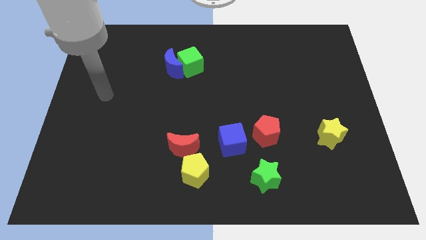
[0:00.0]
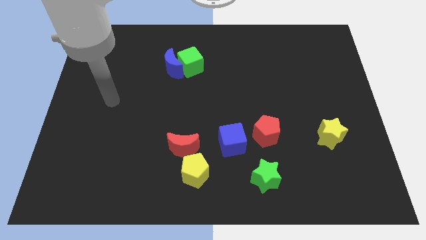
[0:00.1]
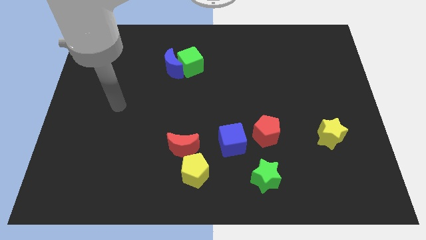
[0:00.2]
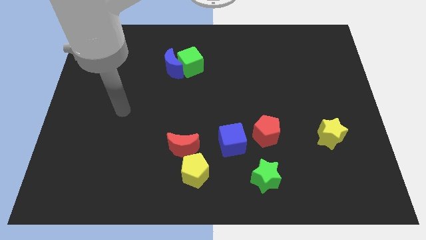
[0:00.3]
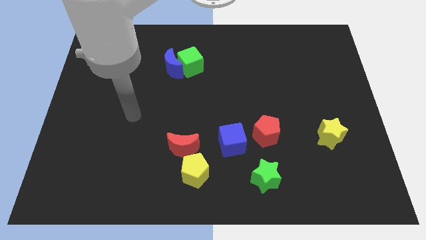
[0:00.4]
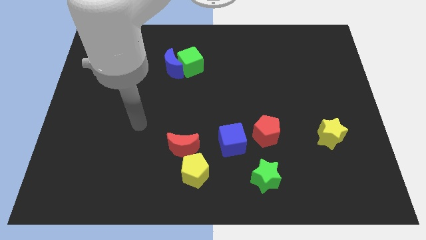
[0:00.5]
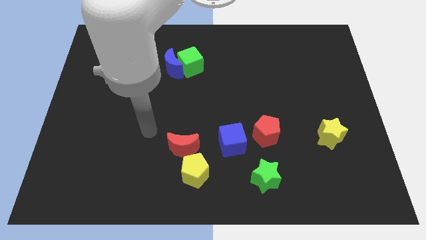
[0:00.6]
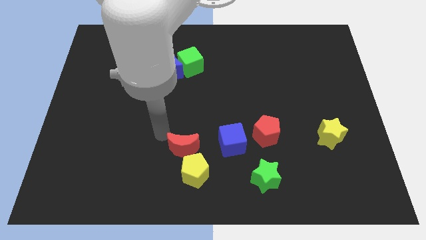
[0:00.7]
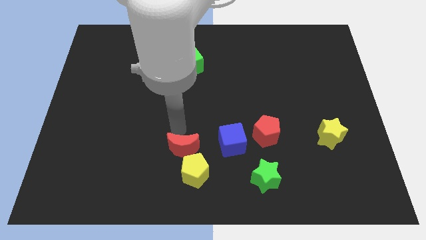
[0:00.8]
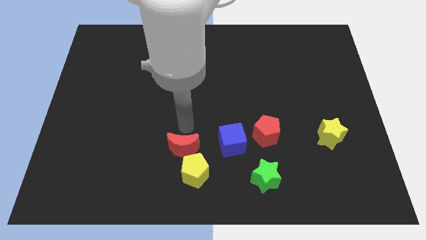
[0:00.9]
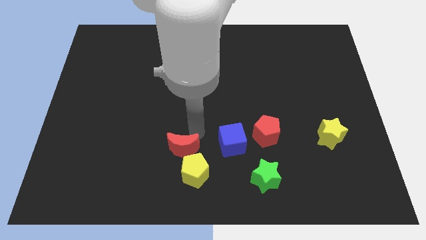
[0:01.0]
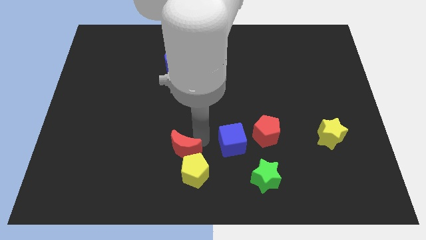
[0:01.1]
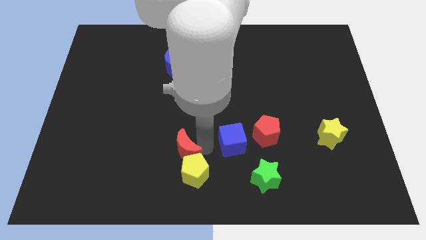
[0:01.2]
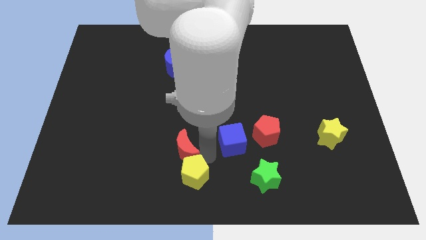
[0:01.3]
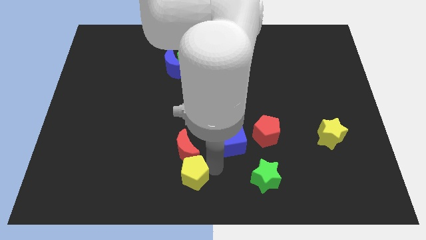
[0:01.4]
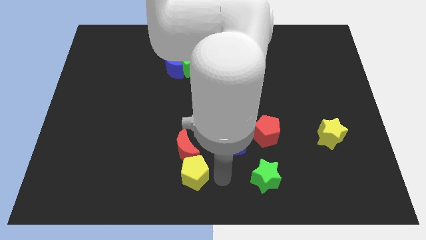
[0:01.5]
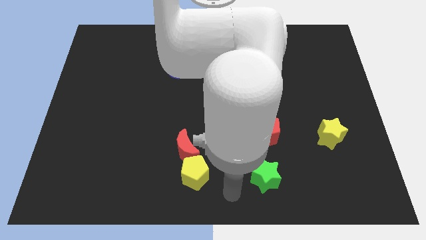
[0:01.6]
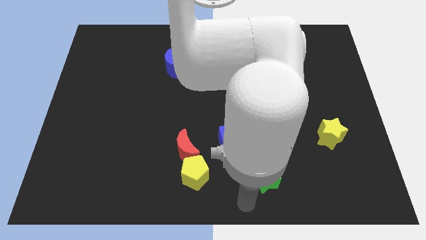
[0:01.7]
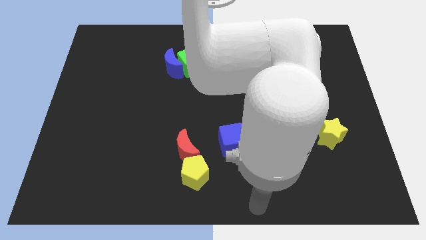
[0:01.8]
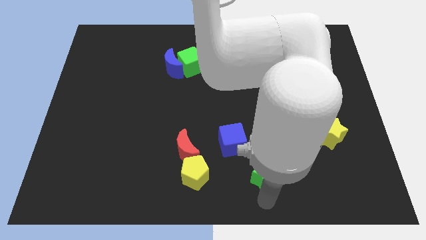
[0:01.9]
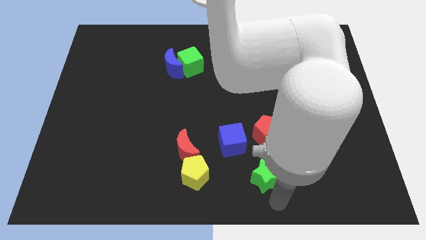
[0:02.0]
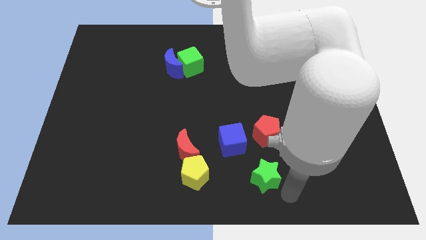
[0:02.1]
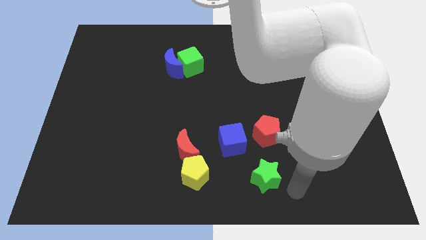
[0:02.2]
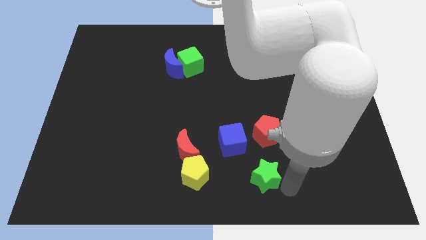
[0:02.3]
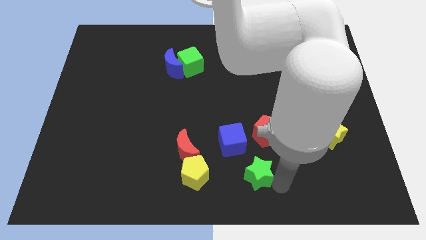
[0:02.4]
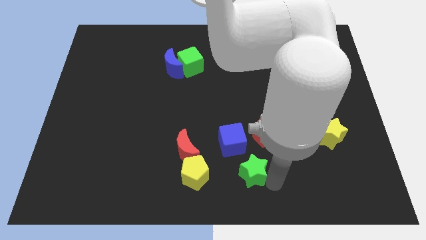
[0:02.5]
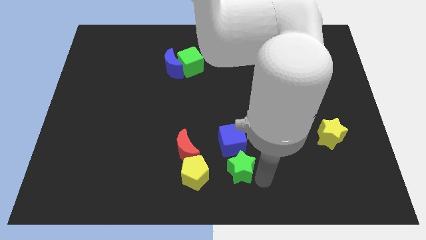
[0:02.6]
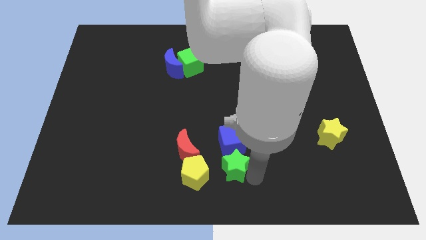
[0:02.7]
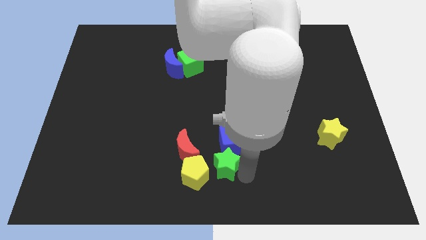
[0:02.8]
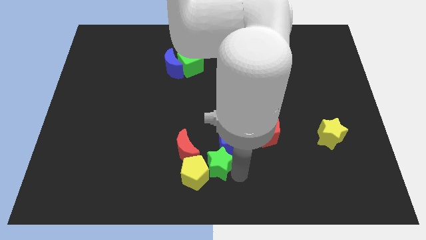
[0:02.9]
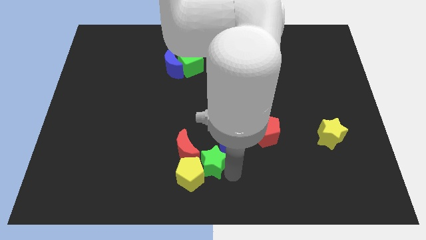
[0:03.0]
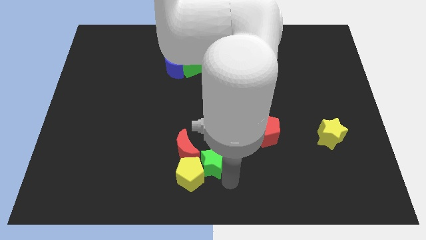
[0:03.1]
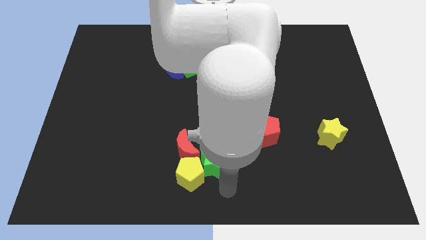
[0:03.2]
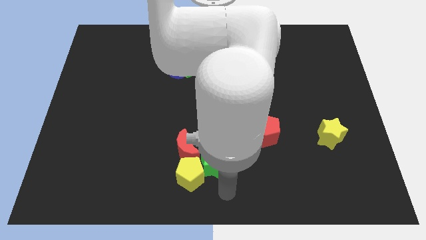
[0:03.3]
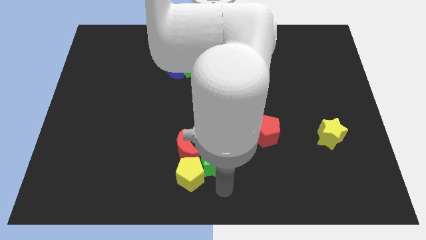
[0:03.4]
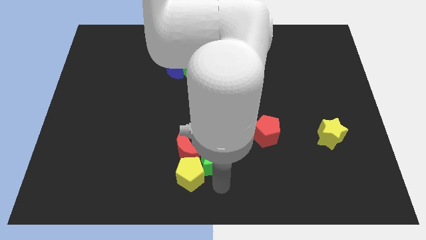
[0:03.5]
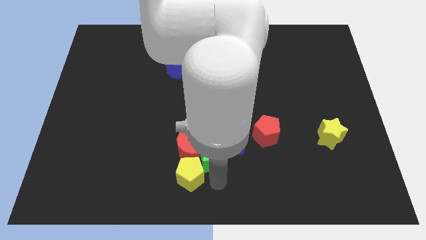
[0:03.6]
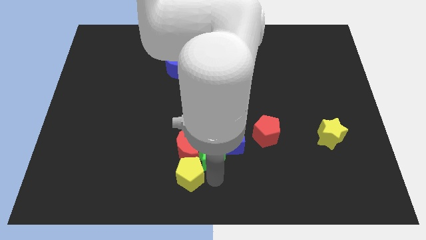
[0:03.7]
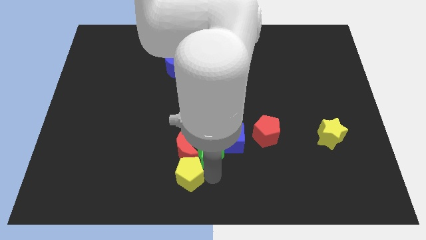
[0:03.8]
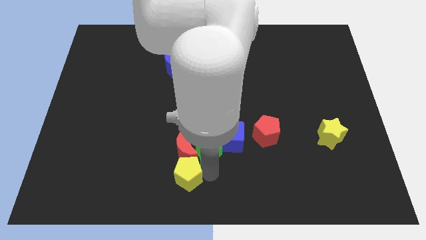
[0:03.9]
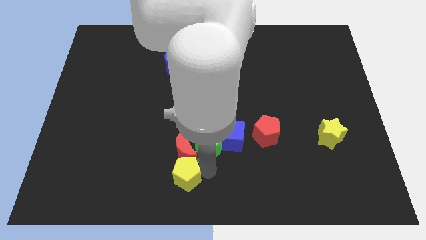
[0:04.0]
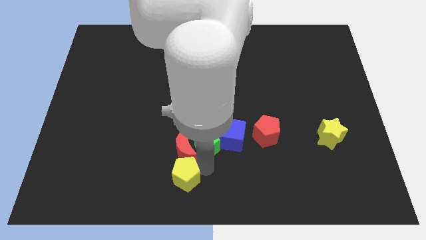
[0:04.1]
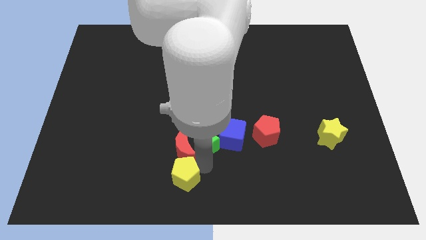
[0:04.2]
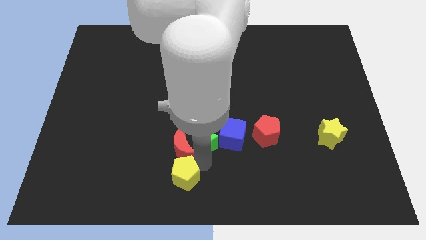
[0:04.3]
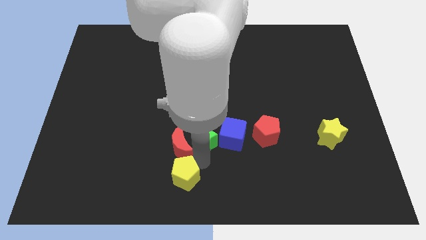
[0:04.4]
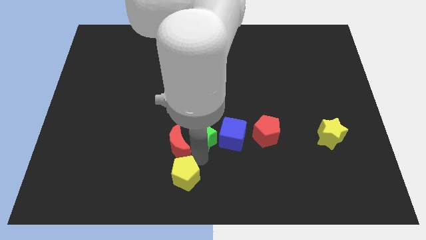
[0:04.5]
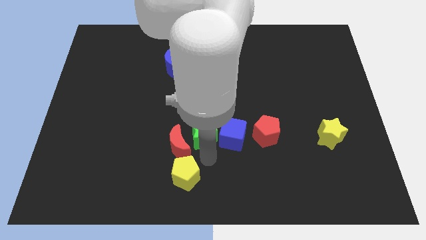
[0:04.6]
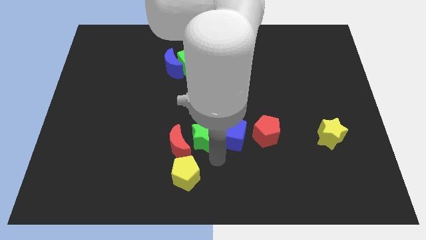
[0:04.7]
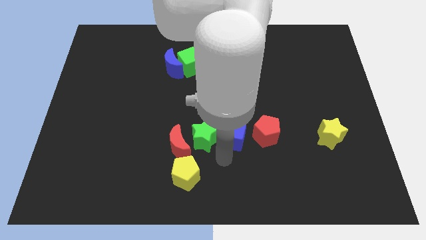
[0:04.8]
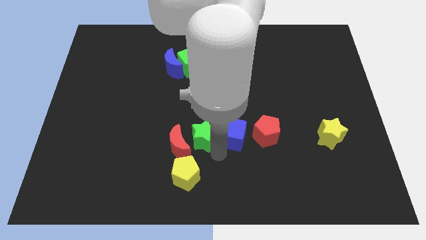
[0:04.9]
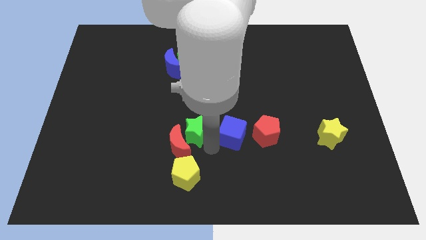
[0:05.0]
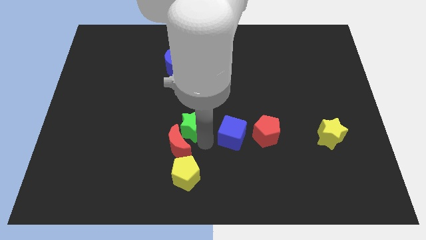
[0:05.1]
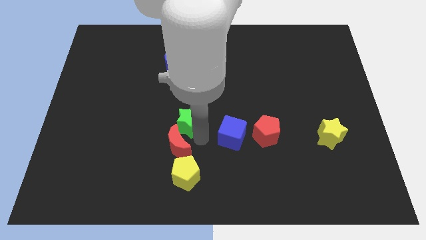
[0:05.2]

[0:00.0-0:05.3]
move the green star diagonally up and to the left

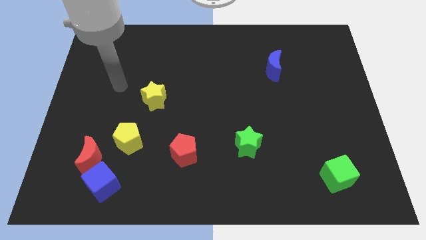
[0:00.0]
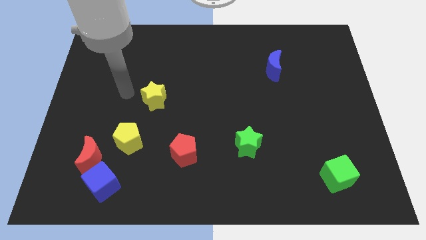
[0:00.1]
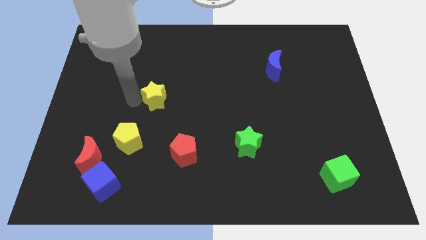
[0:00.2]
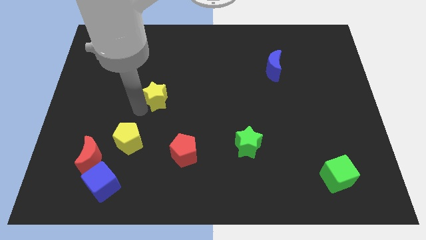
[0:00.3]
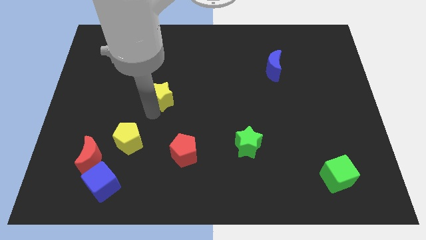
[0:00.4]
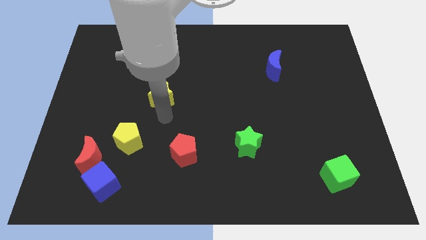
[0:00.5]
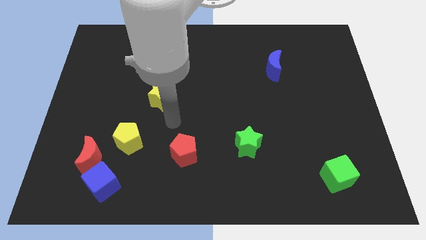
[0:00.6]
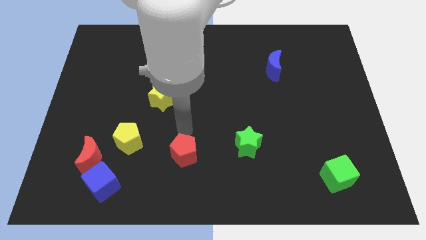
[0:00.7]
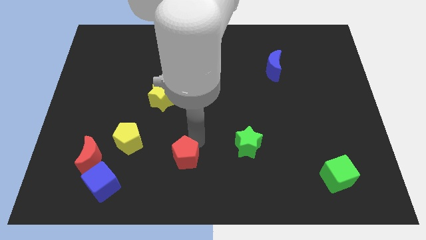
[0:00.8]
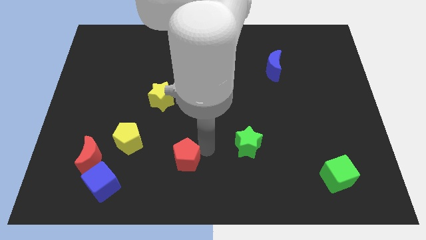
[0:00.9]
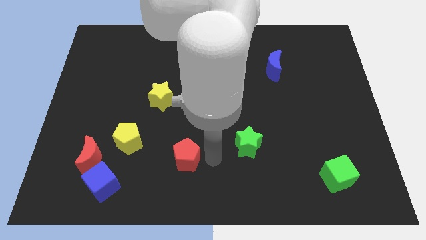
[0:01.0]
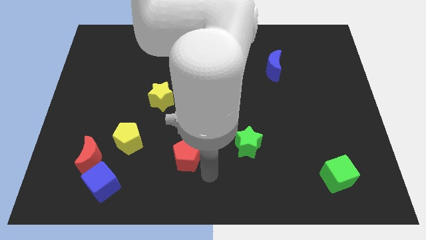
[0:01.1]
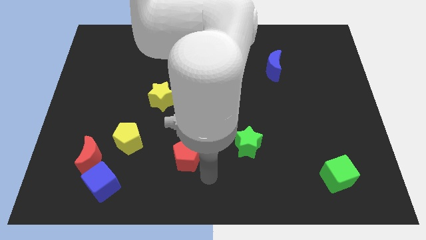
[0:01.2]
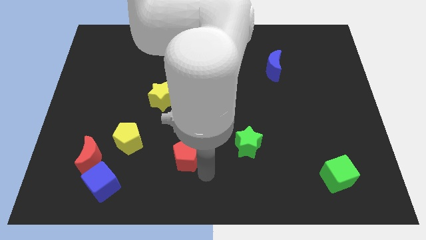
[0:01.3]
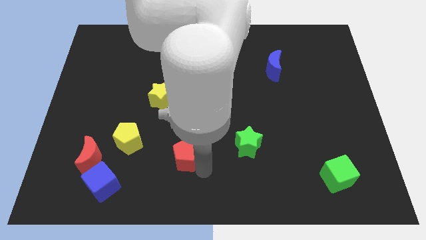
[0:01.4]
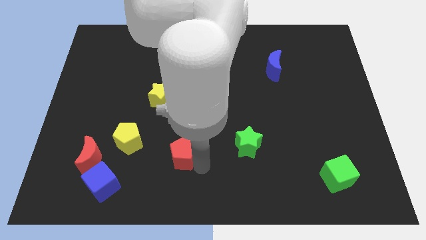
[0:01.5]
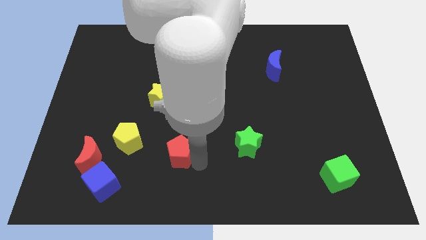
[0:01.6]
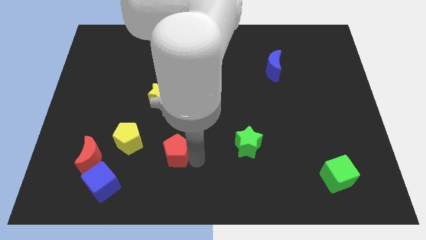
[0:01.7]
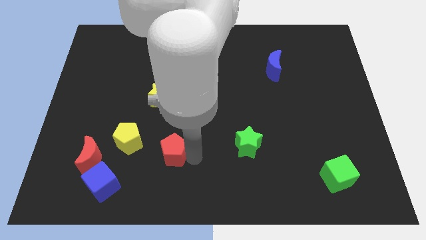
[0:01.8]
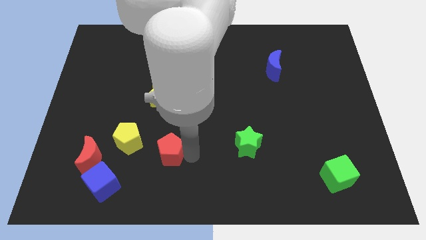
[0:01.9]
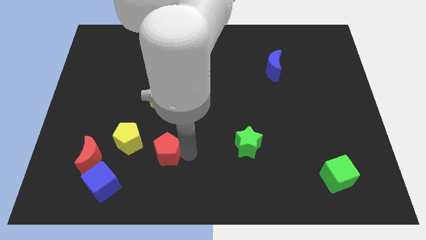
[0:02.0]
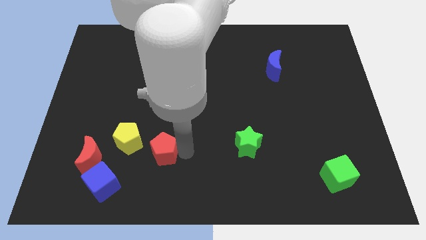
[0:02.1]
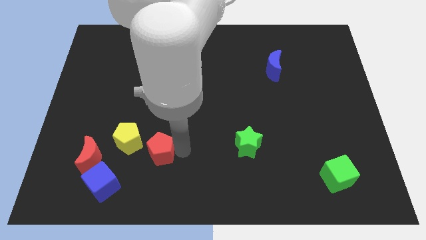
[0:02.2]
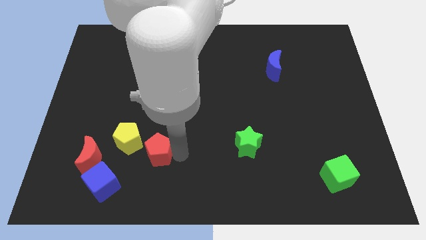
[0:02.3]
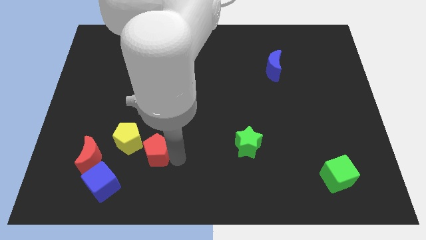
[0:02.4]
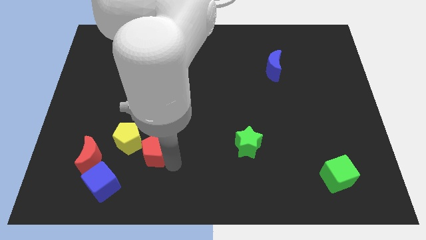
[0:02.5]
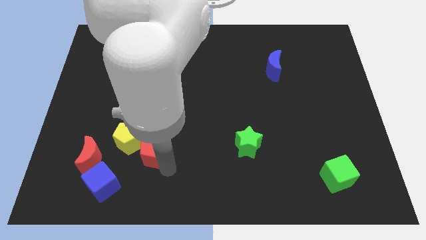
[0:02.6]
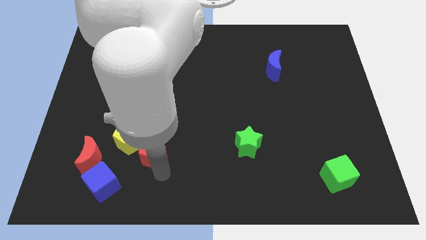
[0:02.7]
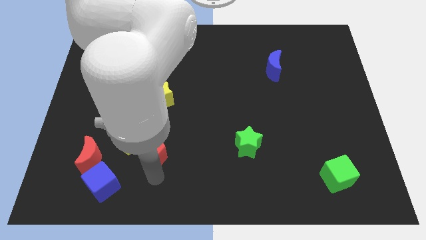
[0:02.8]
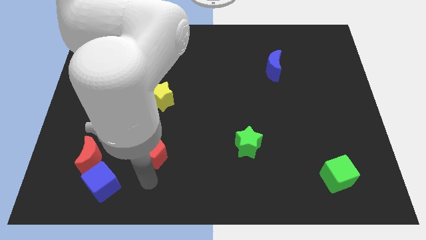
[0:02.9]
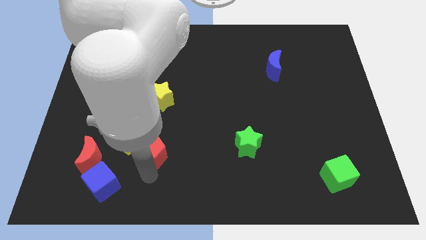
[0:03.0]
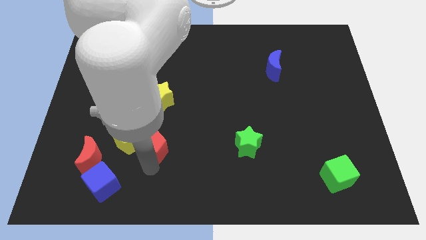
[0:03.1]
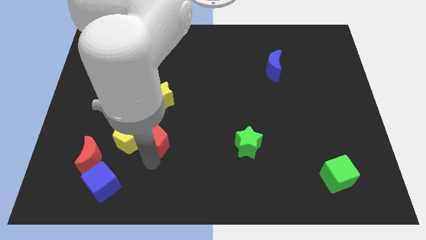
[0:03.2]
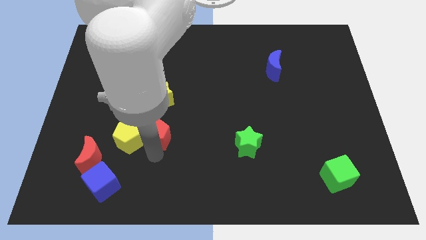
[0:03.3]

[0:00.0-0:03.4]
move the red pentagon up and then to the left a little
